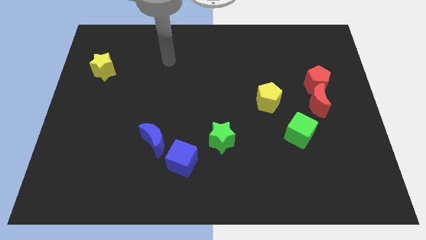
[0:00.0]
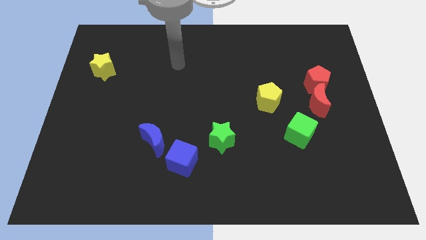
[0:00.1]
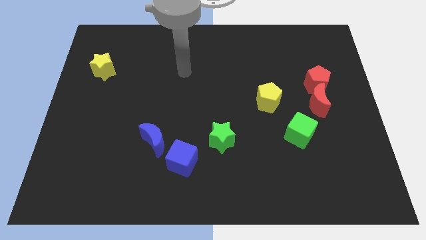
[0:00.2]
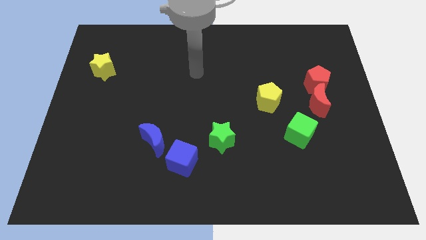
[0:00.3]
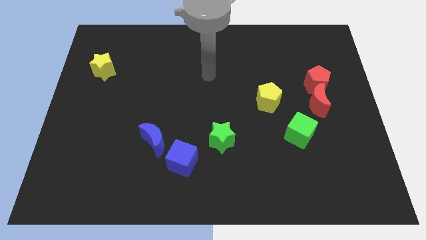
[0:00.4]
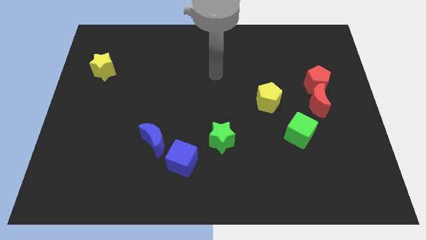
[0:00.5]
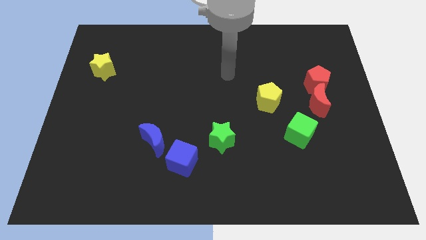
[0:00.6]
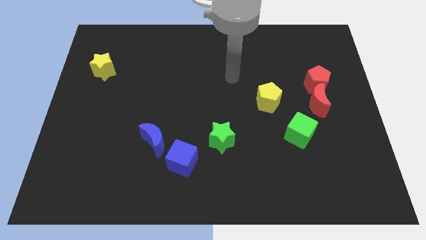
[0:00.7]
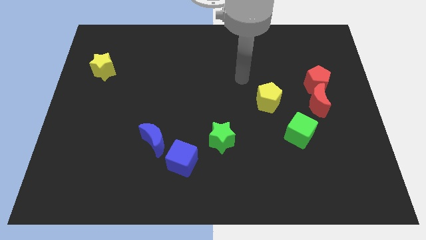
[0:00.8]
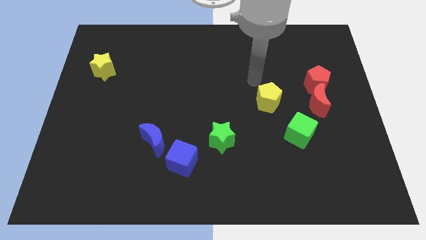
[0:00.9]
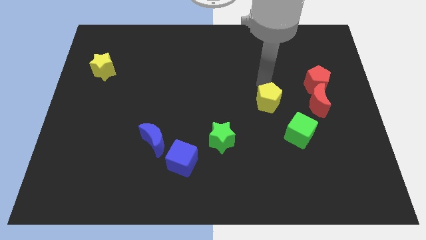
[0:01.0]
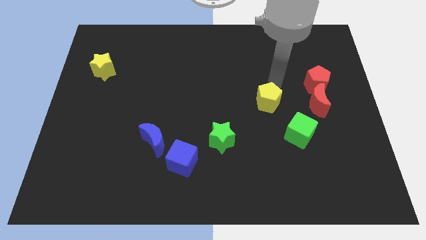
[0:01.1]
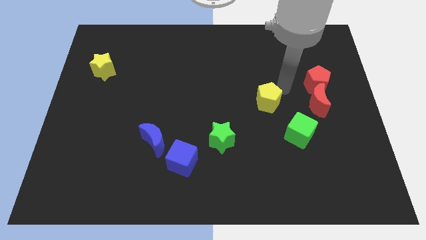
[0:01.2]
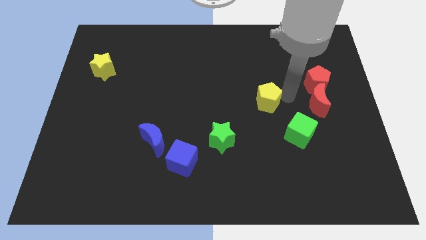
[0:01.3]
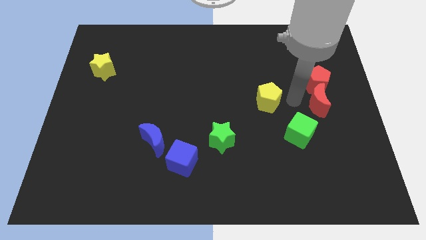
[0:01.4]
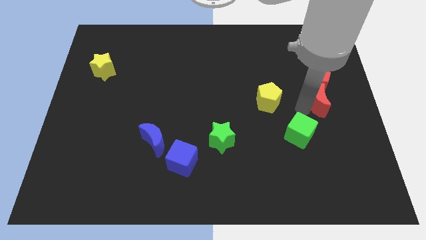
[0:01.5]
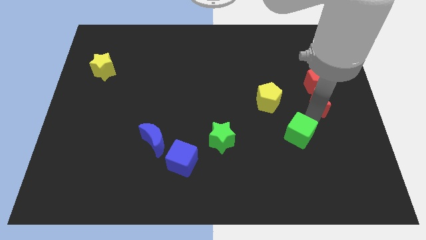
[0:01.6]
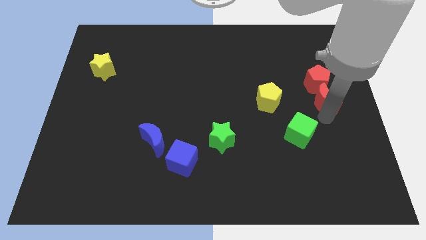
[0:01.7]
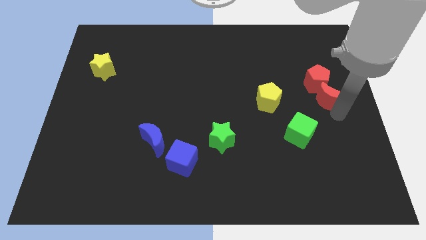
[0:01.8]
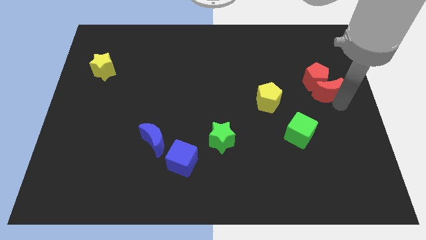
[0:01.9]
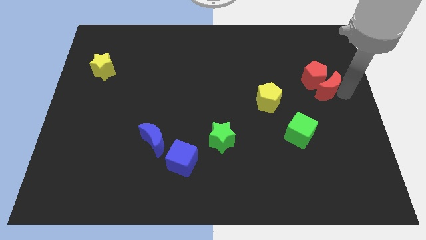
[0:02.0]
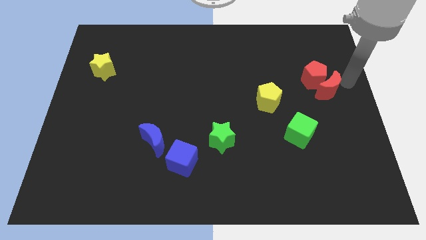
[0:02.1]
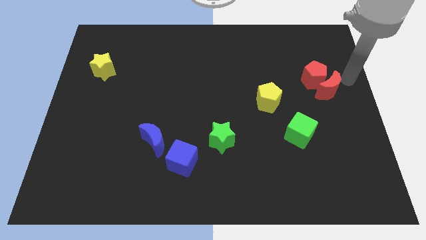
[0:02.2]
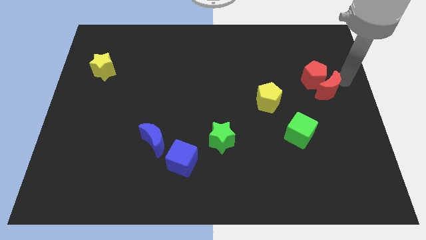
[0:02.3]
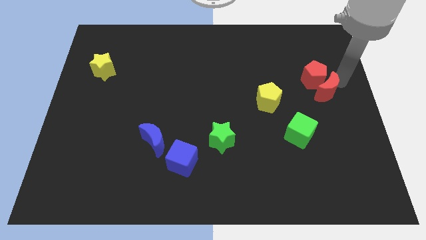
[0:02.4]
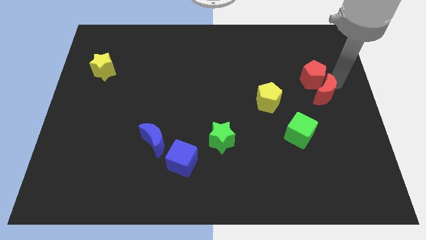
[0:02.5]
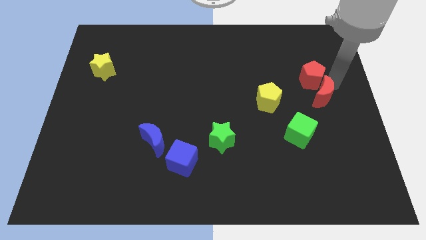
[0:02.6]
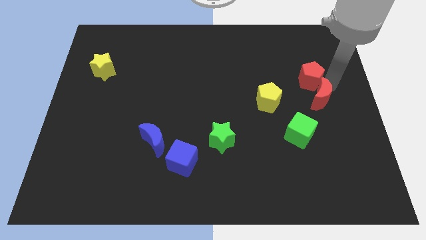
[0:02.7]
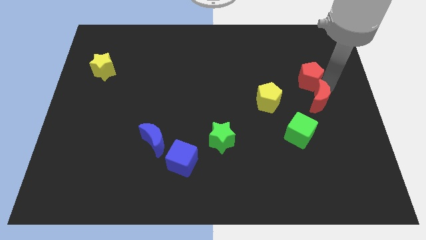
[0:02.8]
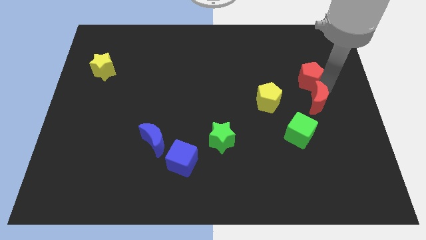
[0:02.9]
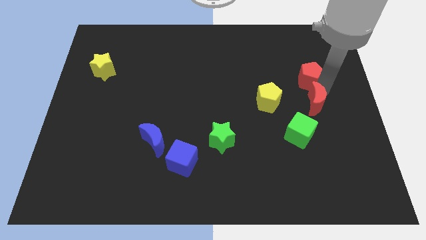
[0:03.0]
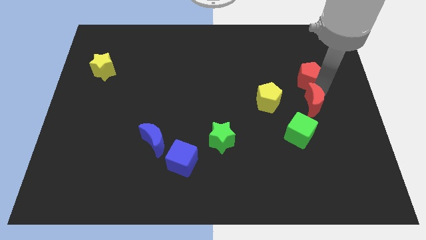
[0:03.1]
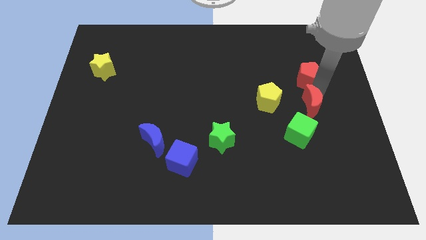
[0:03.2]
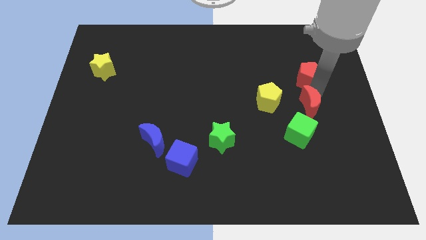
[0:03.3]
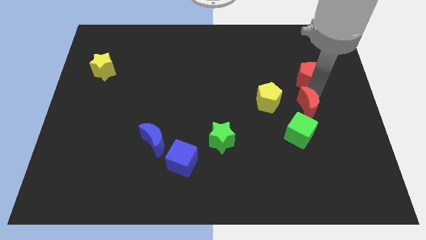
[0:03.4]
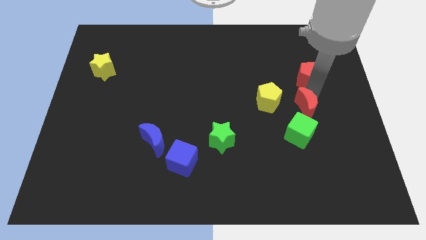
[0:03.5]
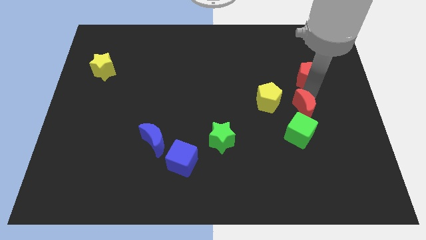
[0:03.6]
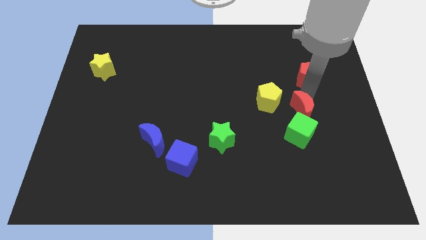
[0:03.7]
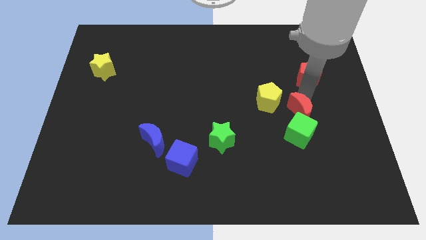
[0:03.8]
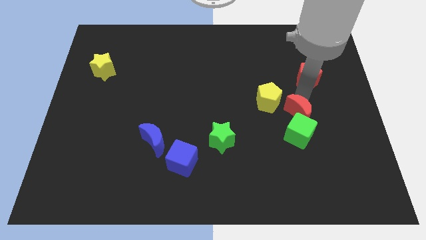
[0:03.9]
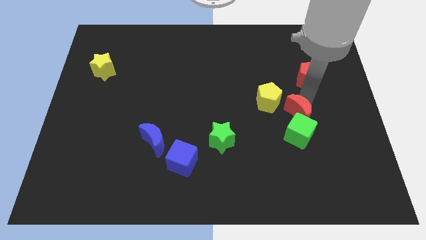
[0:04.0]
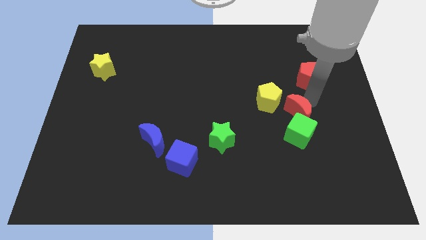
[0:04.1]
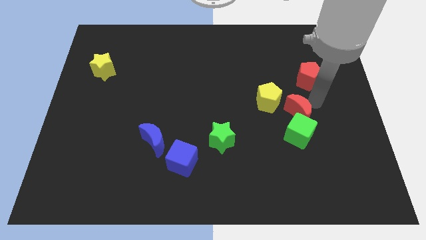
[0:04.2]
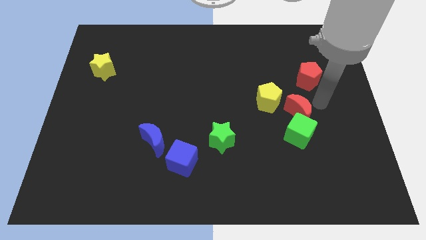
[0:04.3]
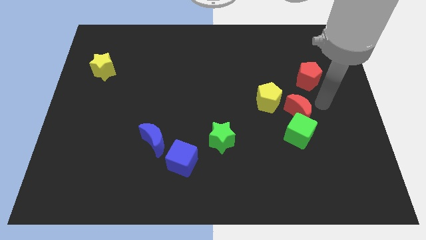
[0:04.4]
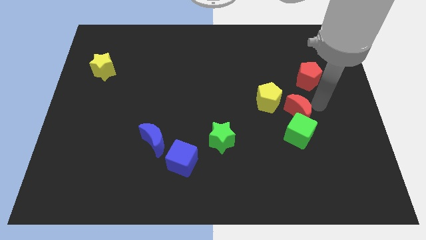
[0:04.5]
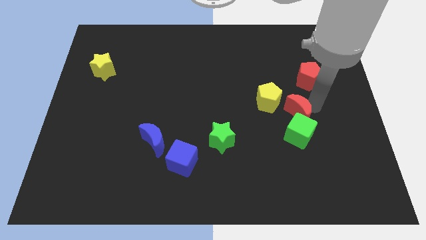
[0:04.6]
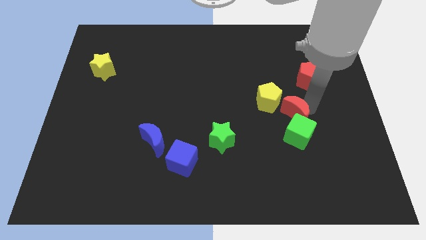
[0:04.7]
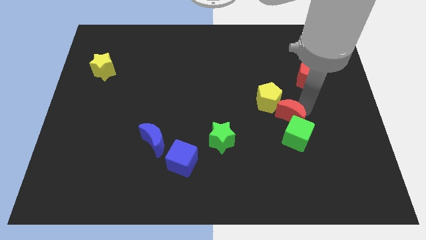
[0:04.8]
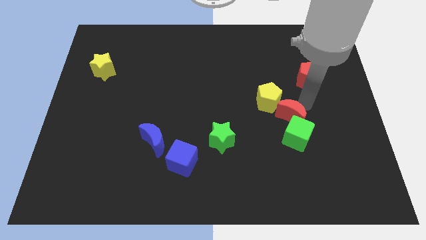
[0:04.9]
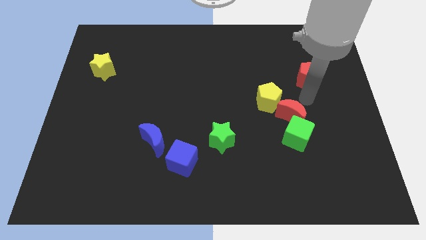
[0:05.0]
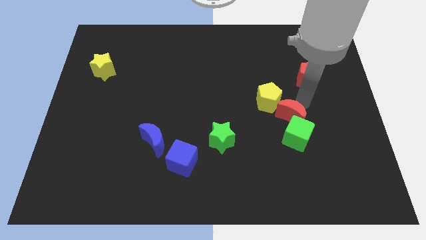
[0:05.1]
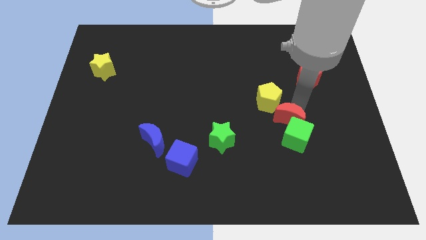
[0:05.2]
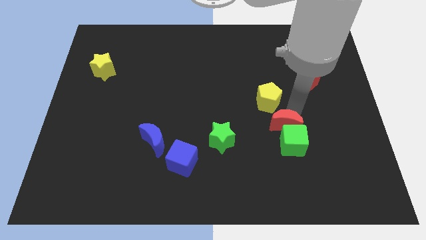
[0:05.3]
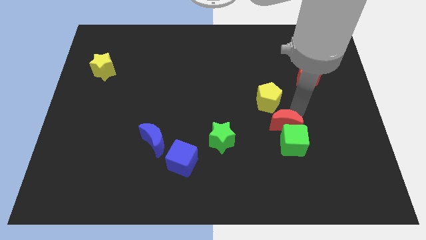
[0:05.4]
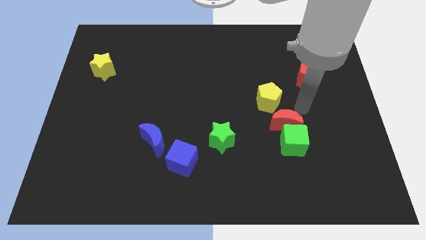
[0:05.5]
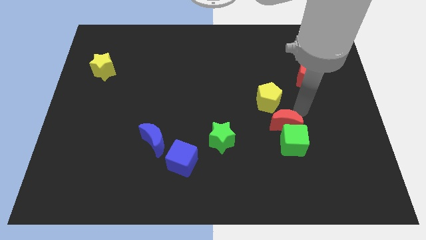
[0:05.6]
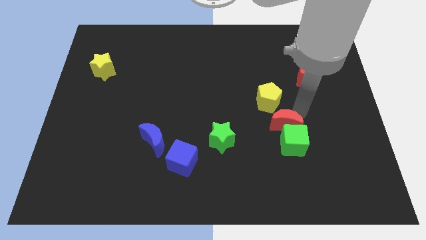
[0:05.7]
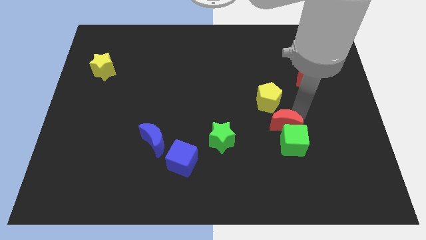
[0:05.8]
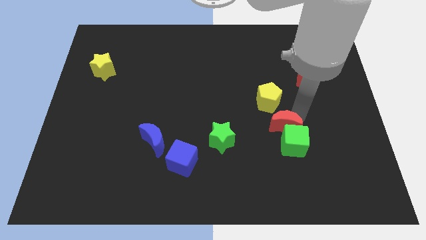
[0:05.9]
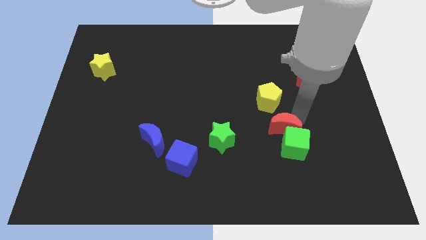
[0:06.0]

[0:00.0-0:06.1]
put the red moon just right of the green star

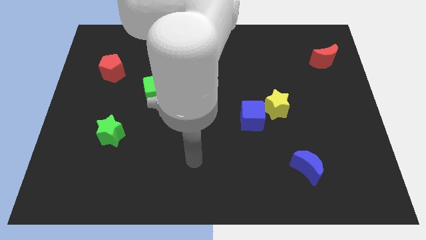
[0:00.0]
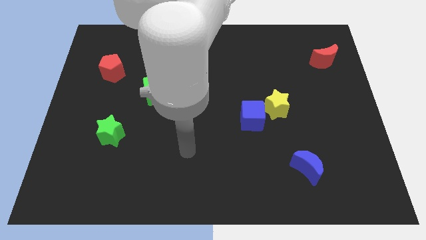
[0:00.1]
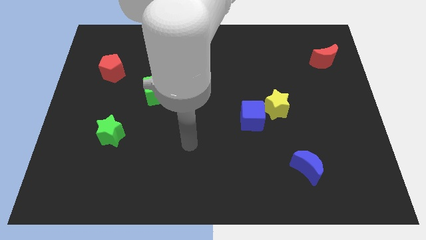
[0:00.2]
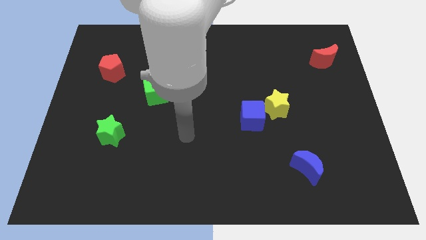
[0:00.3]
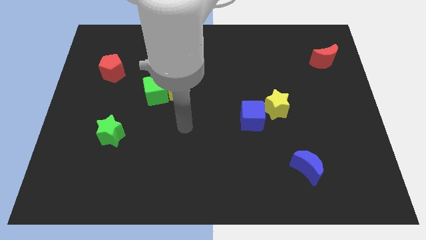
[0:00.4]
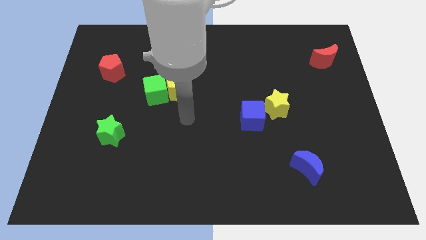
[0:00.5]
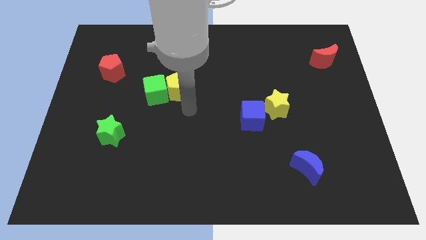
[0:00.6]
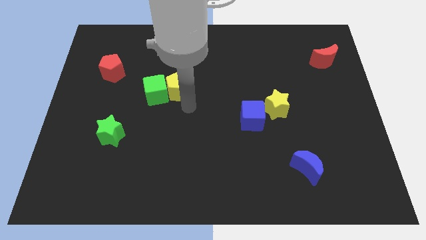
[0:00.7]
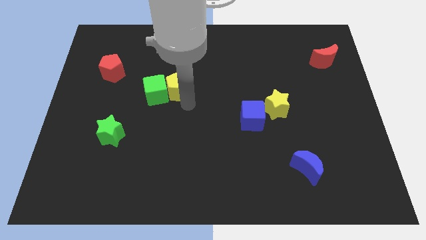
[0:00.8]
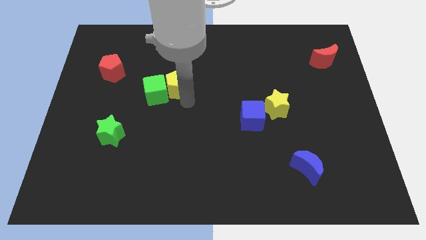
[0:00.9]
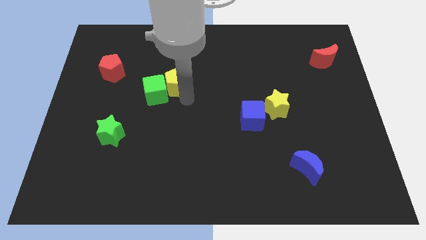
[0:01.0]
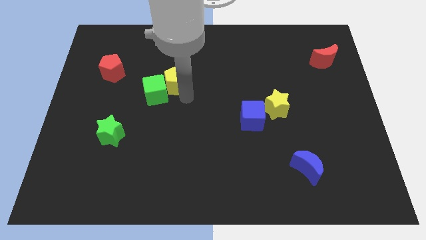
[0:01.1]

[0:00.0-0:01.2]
push the yellow pentagon above the green cube
